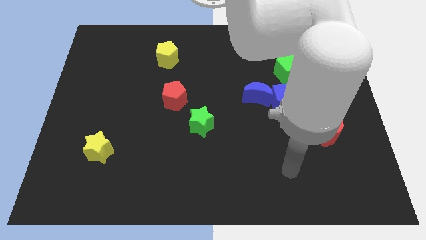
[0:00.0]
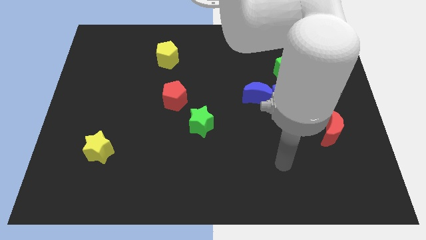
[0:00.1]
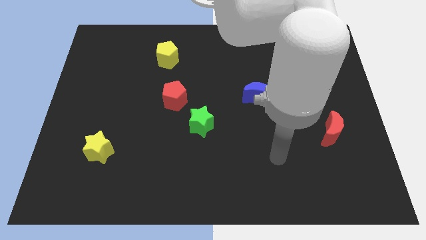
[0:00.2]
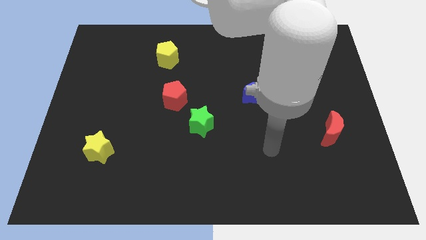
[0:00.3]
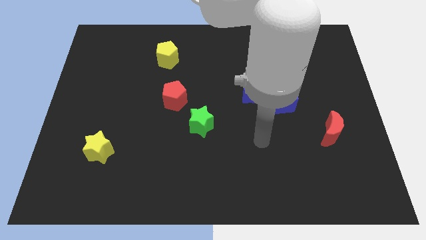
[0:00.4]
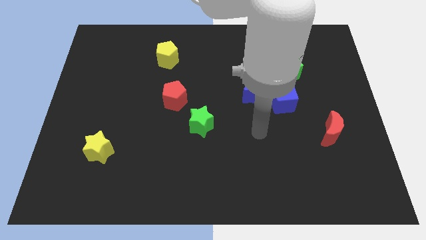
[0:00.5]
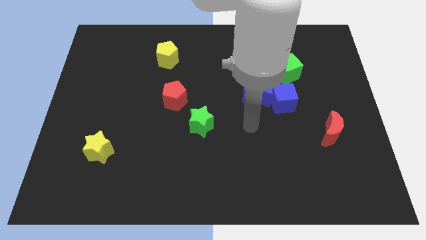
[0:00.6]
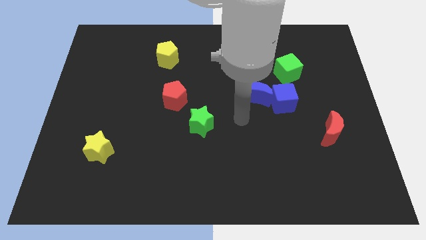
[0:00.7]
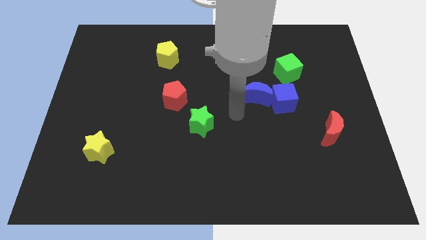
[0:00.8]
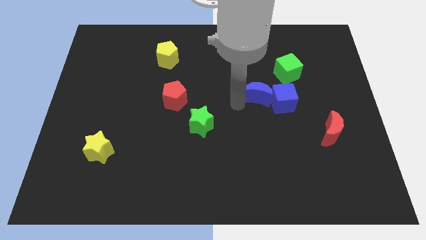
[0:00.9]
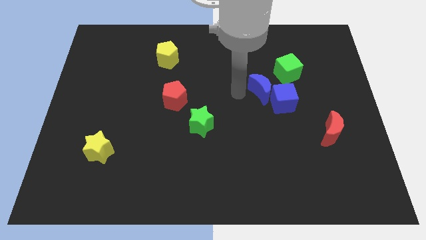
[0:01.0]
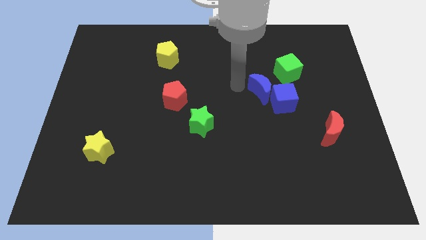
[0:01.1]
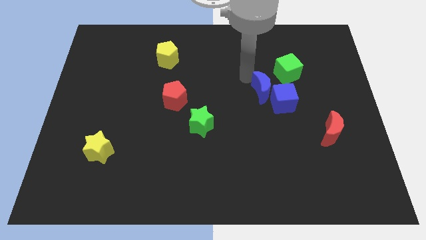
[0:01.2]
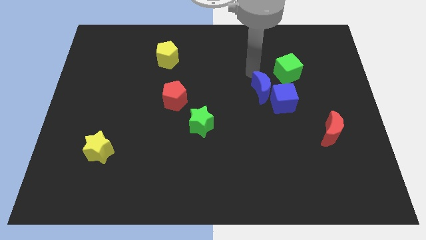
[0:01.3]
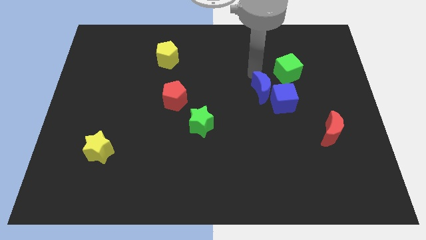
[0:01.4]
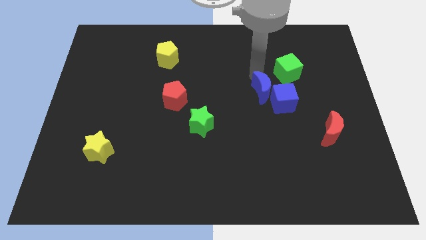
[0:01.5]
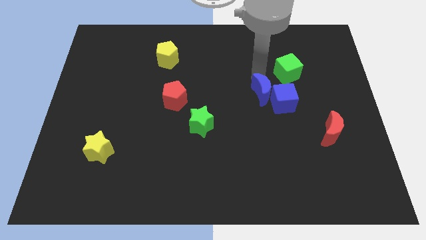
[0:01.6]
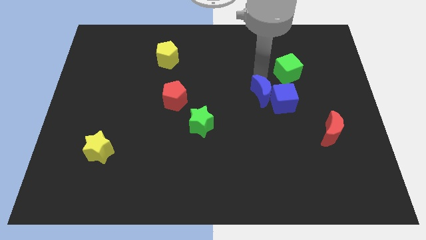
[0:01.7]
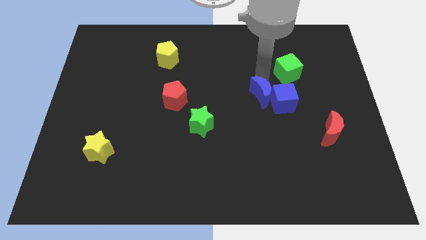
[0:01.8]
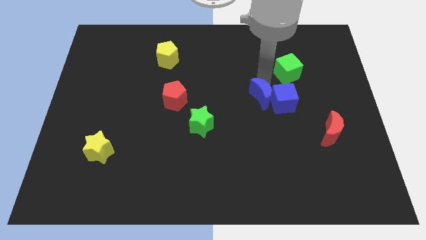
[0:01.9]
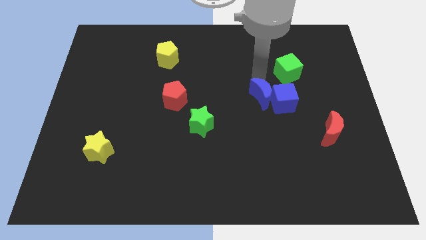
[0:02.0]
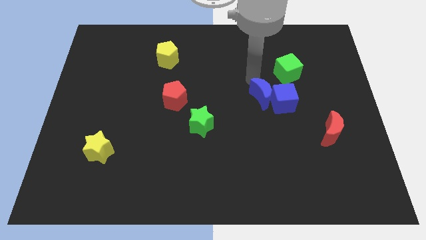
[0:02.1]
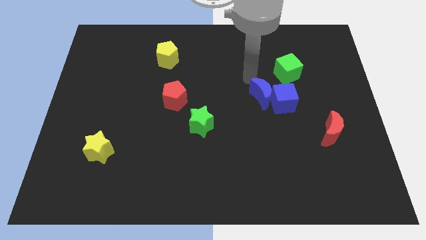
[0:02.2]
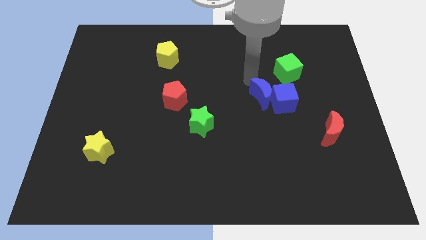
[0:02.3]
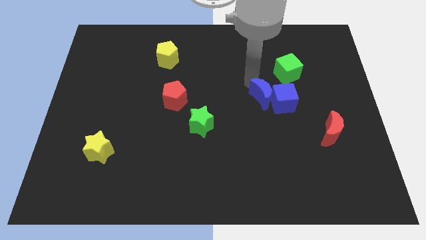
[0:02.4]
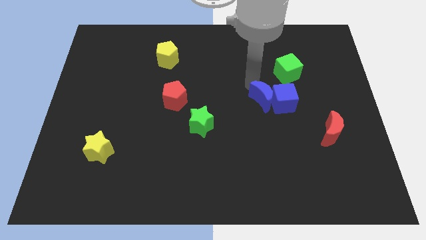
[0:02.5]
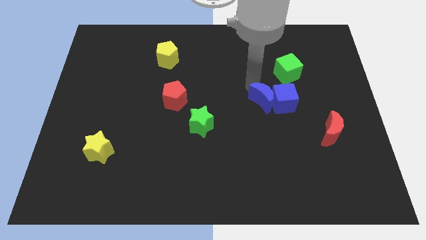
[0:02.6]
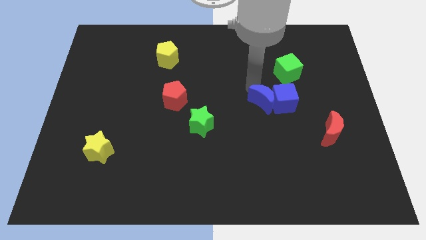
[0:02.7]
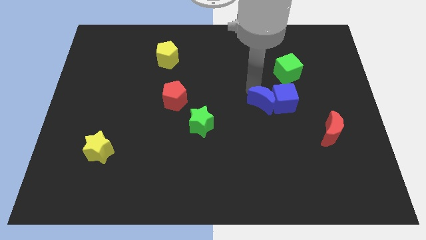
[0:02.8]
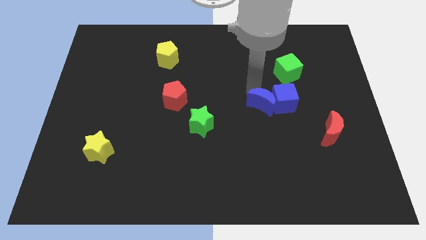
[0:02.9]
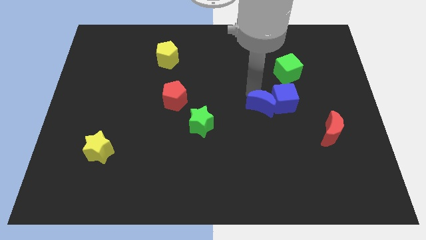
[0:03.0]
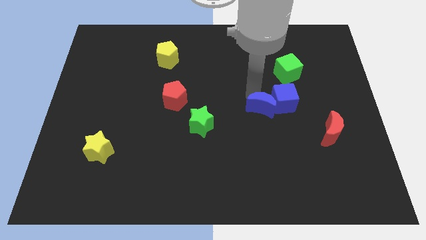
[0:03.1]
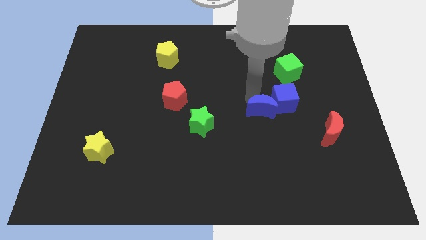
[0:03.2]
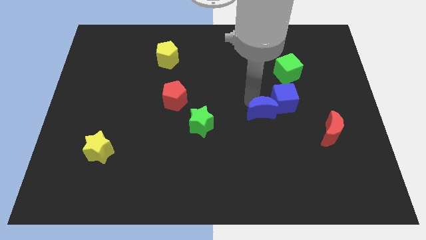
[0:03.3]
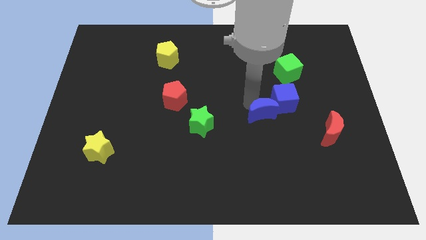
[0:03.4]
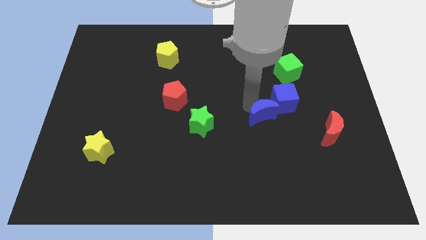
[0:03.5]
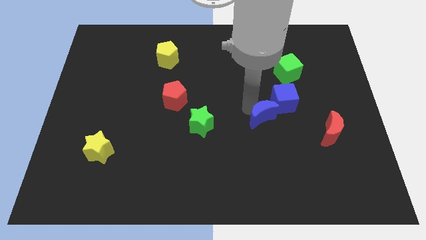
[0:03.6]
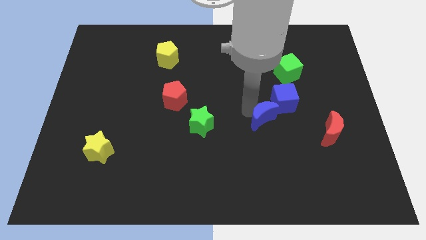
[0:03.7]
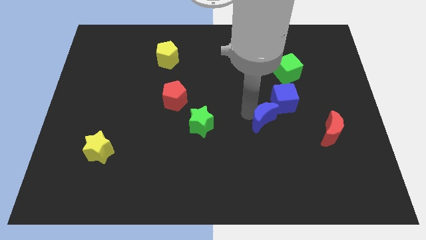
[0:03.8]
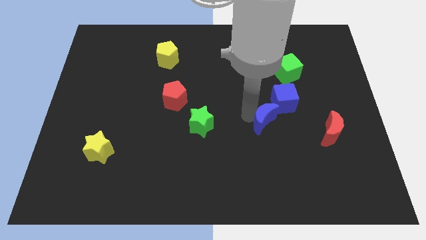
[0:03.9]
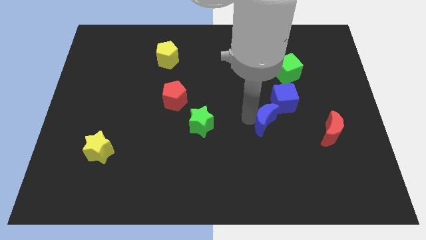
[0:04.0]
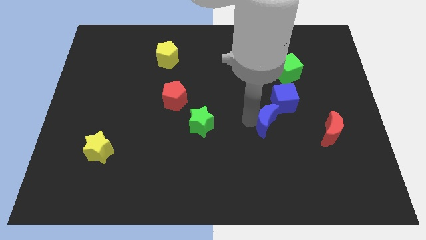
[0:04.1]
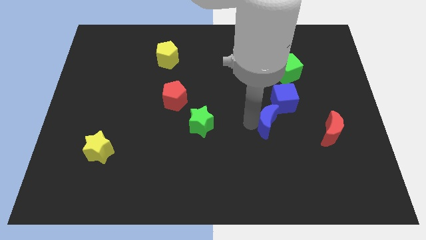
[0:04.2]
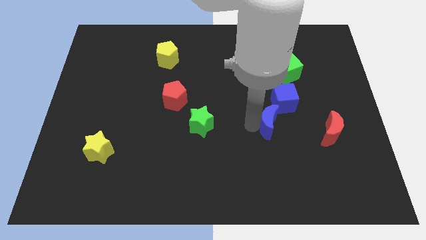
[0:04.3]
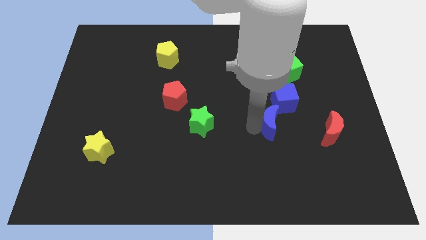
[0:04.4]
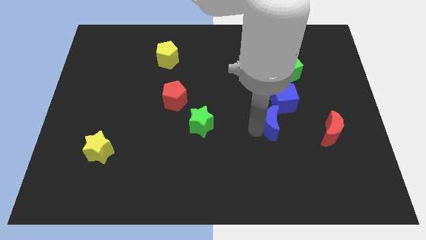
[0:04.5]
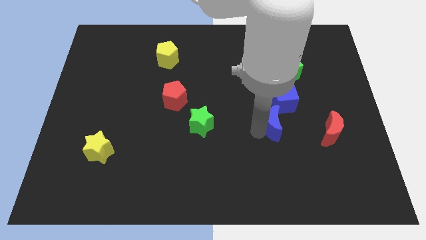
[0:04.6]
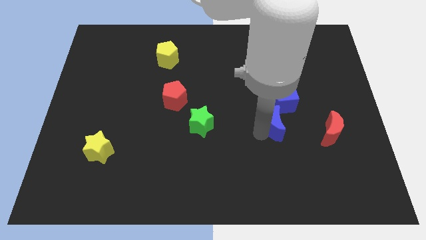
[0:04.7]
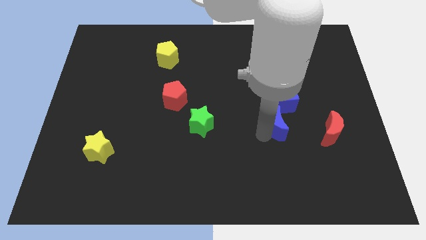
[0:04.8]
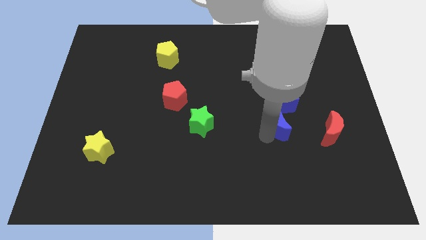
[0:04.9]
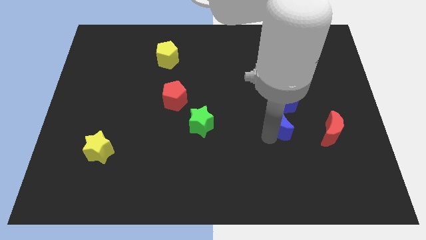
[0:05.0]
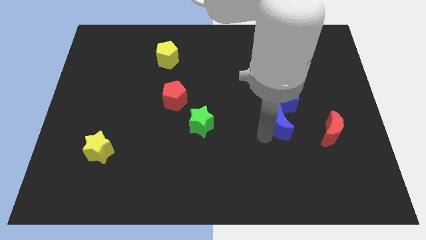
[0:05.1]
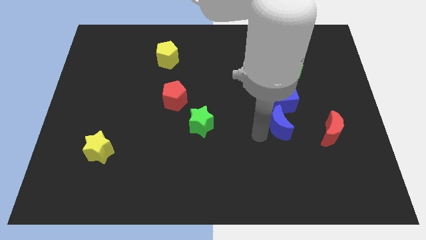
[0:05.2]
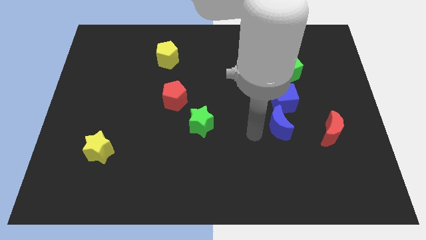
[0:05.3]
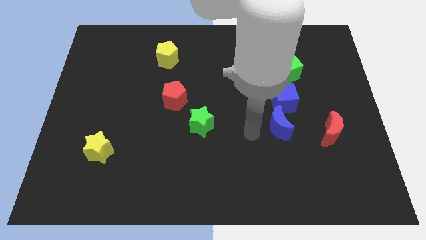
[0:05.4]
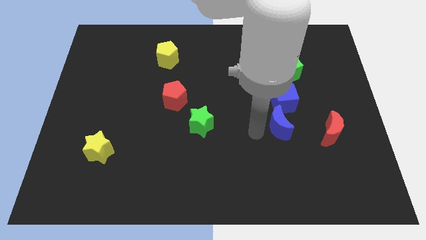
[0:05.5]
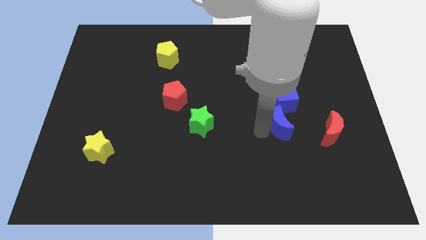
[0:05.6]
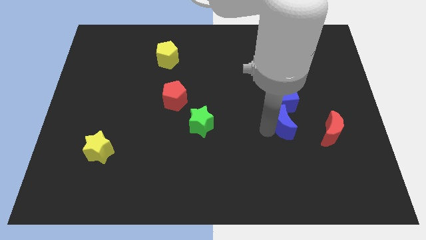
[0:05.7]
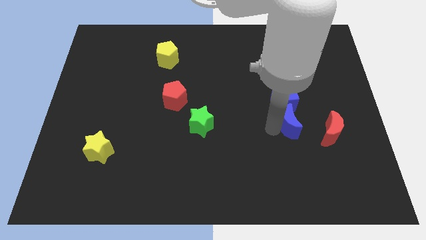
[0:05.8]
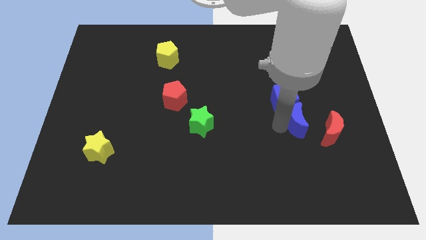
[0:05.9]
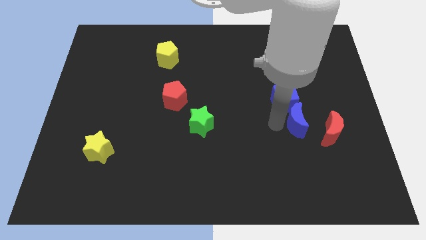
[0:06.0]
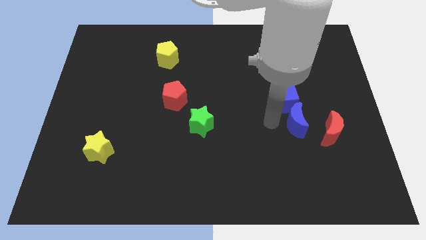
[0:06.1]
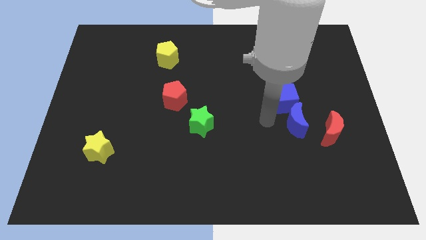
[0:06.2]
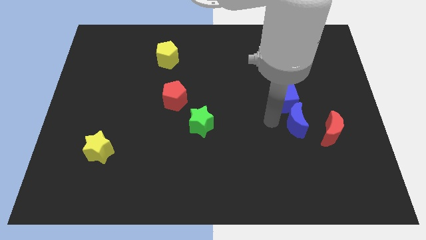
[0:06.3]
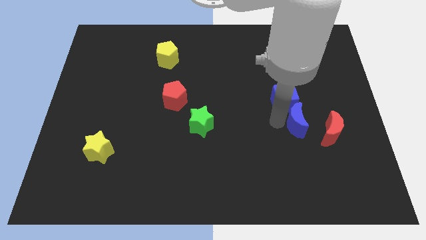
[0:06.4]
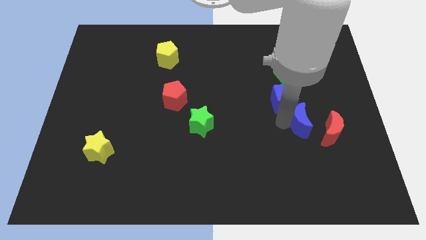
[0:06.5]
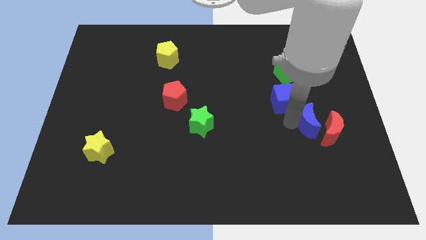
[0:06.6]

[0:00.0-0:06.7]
put the blue moon to the red moon

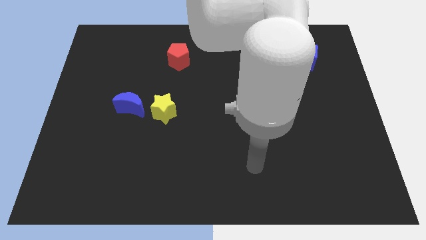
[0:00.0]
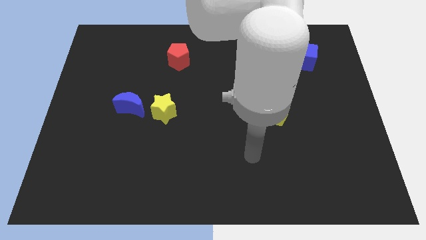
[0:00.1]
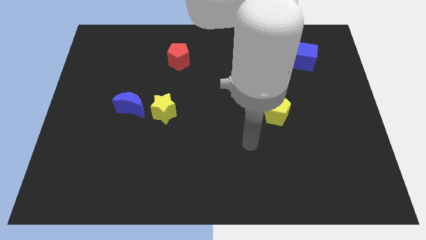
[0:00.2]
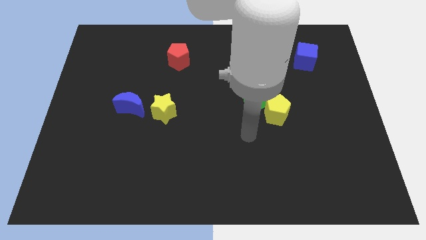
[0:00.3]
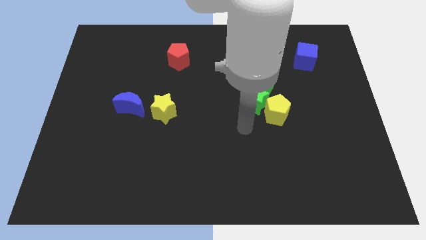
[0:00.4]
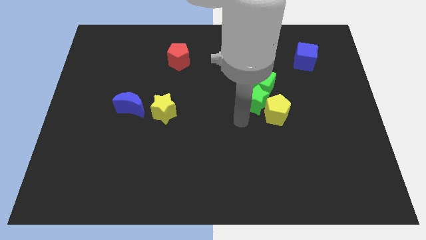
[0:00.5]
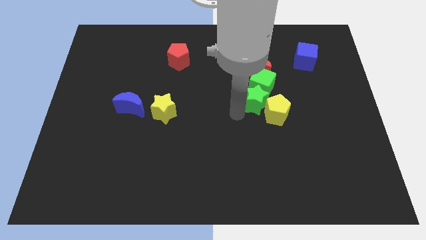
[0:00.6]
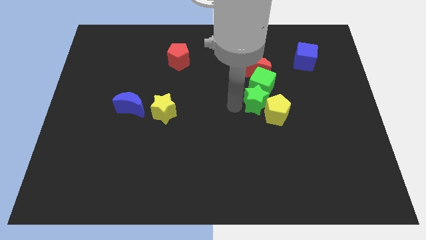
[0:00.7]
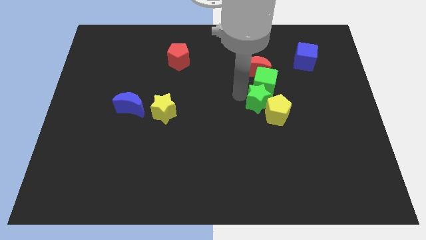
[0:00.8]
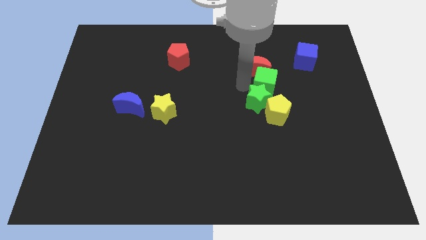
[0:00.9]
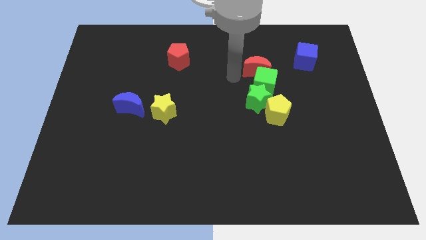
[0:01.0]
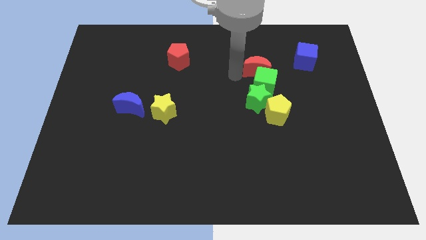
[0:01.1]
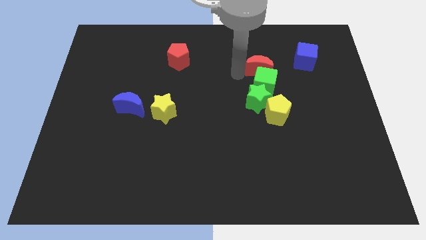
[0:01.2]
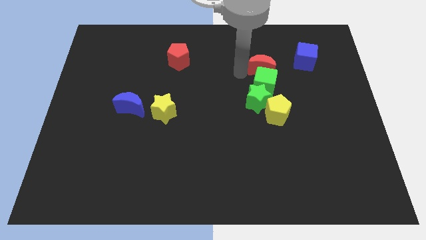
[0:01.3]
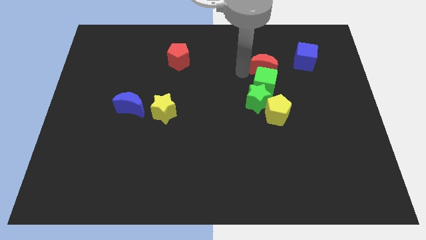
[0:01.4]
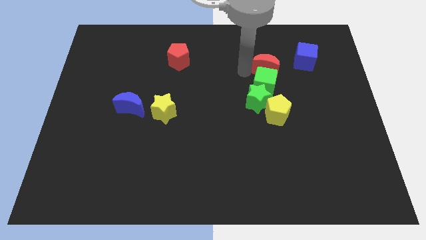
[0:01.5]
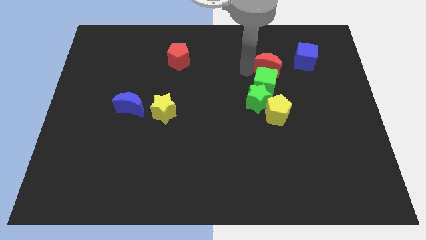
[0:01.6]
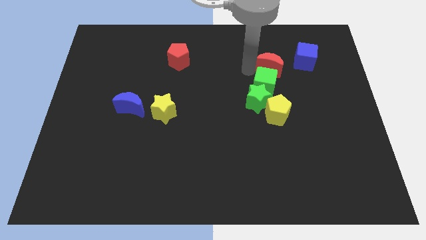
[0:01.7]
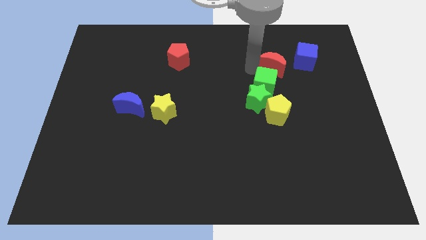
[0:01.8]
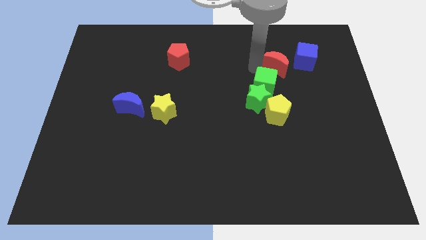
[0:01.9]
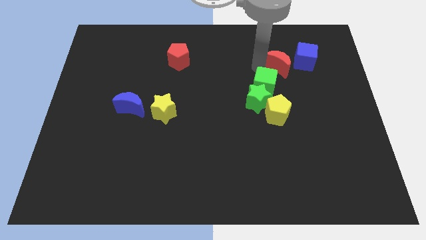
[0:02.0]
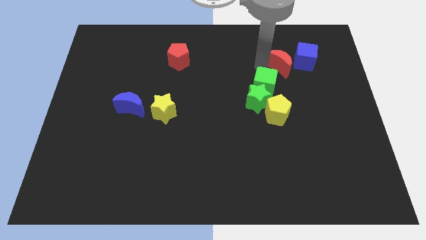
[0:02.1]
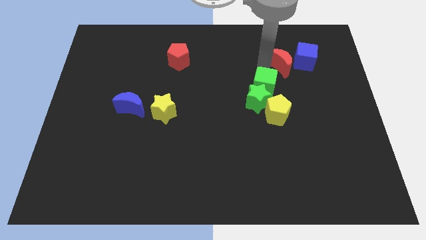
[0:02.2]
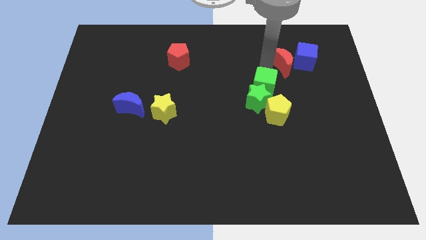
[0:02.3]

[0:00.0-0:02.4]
put the red moon close to the blue cube
